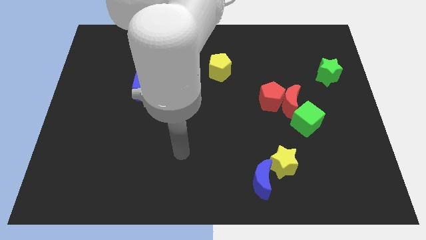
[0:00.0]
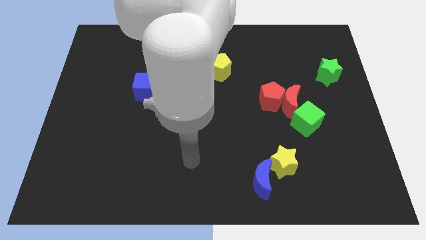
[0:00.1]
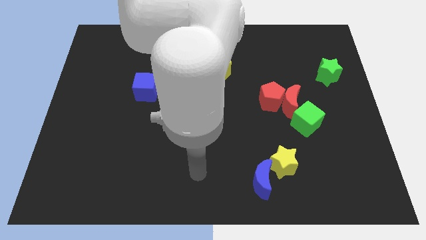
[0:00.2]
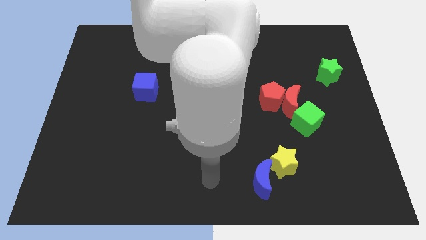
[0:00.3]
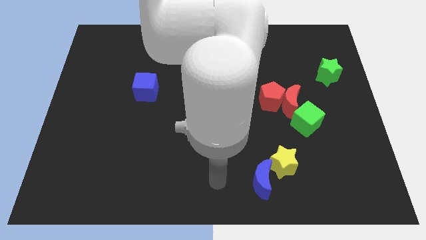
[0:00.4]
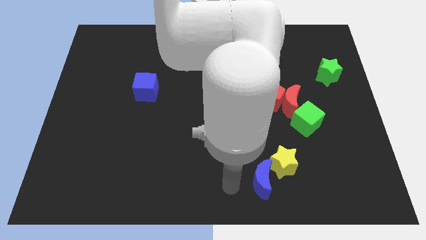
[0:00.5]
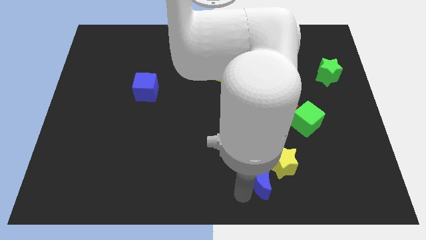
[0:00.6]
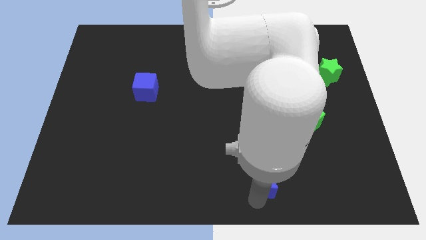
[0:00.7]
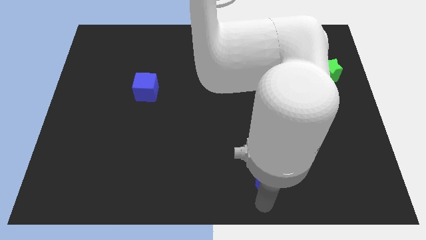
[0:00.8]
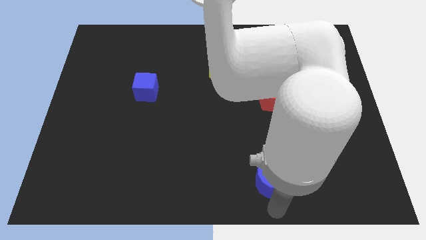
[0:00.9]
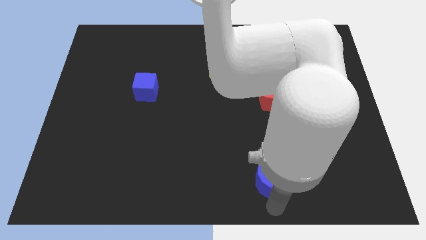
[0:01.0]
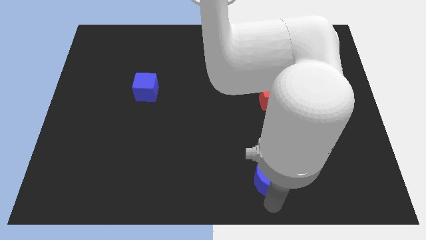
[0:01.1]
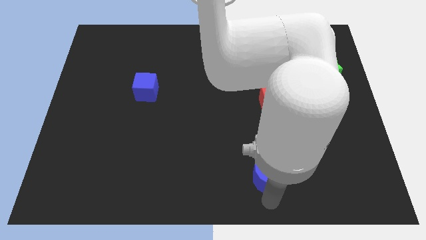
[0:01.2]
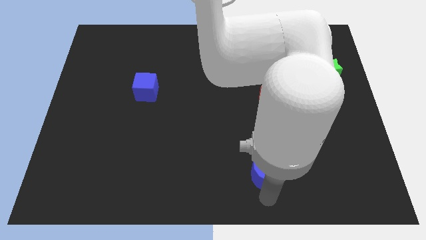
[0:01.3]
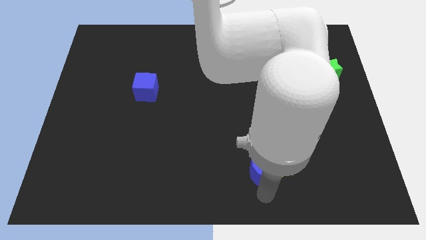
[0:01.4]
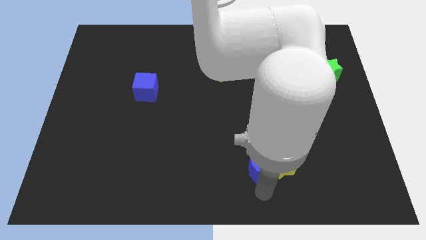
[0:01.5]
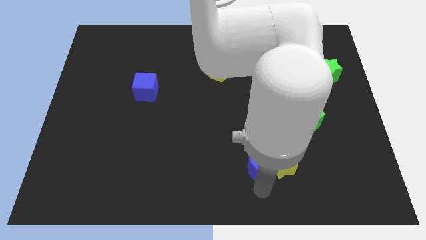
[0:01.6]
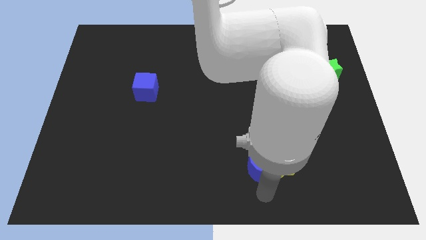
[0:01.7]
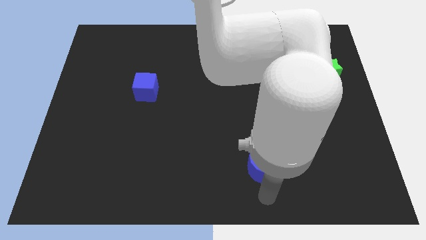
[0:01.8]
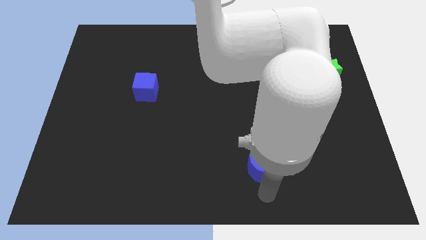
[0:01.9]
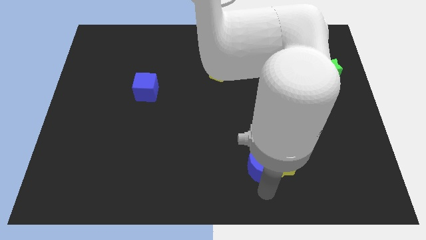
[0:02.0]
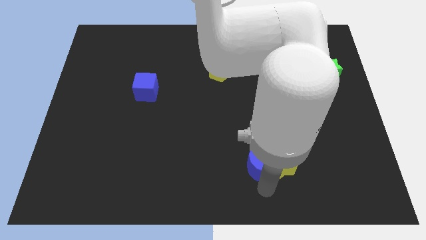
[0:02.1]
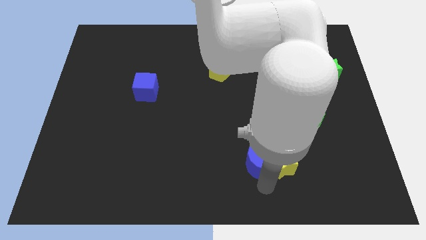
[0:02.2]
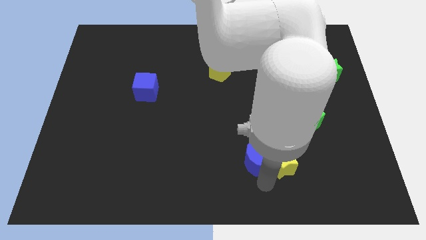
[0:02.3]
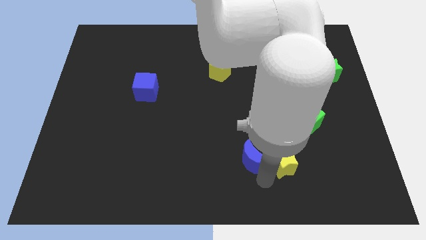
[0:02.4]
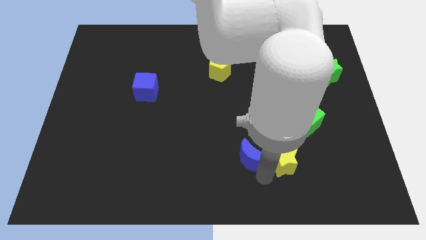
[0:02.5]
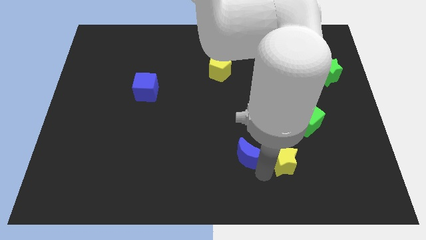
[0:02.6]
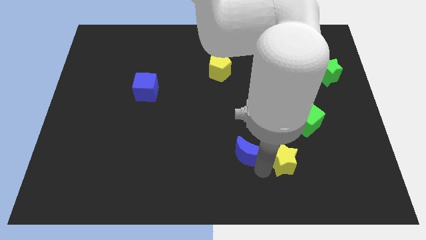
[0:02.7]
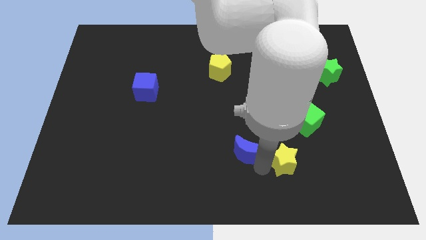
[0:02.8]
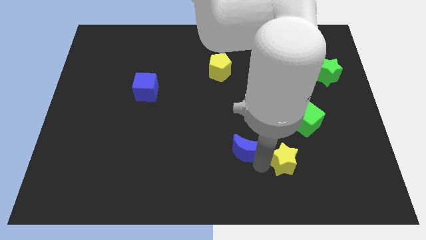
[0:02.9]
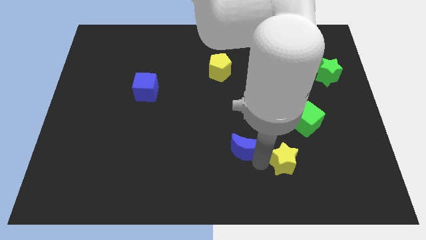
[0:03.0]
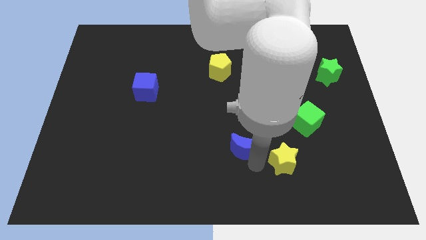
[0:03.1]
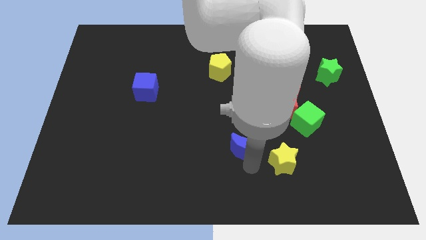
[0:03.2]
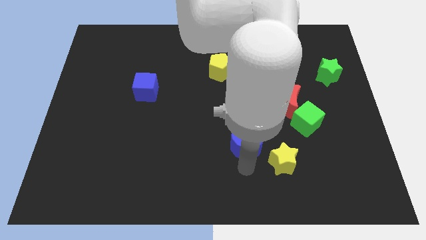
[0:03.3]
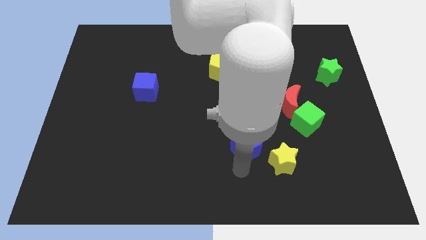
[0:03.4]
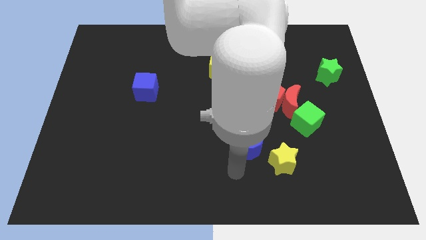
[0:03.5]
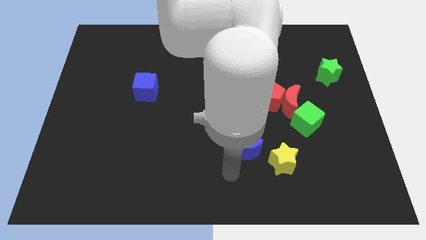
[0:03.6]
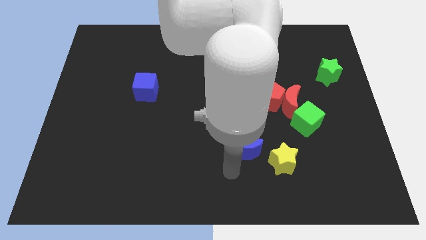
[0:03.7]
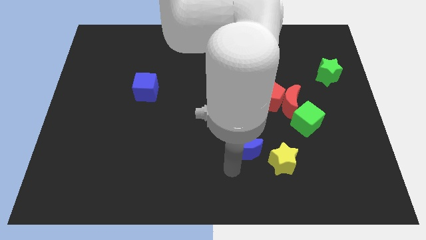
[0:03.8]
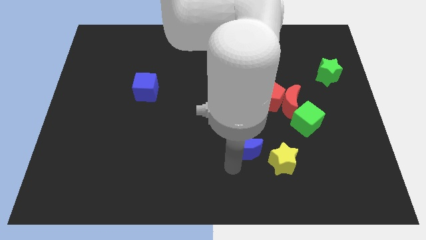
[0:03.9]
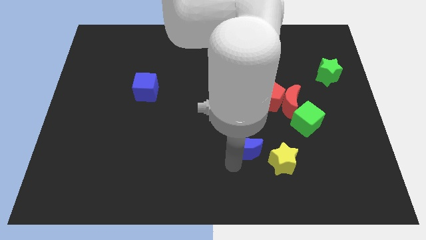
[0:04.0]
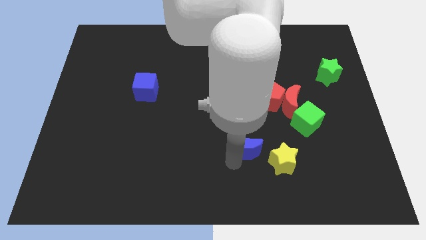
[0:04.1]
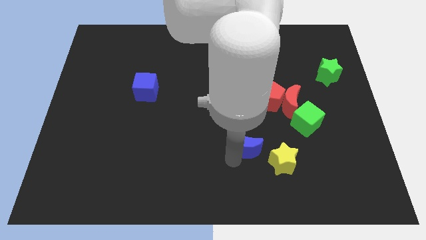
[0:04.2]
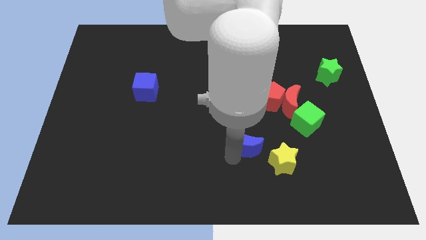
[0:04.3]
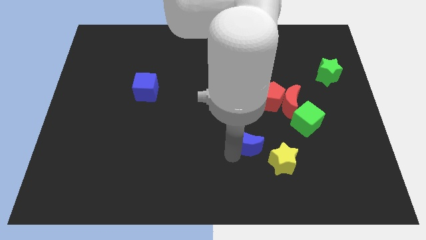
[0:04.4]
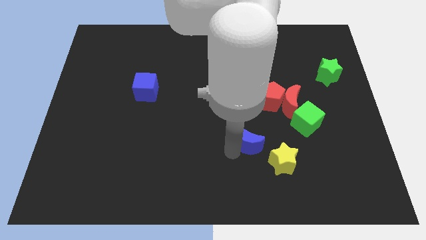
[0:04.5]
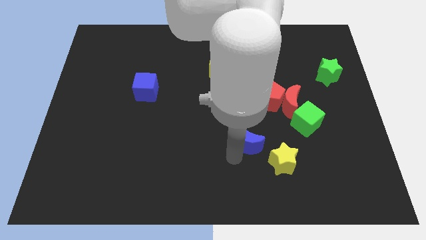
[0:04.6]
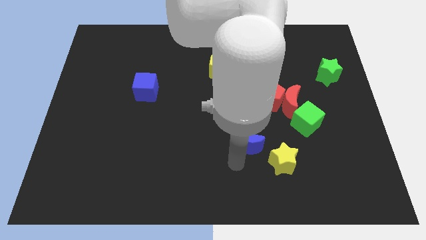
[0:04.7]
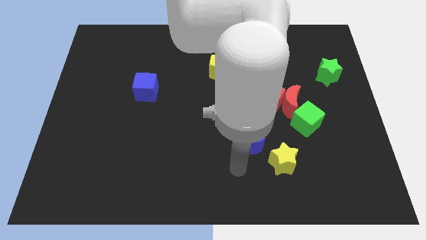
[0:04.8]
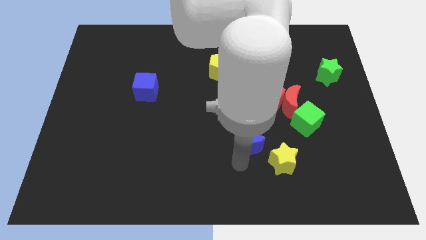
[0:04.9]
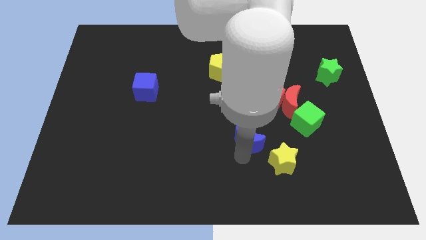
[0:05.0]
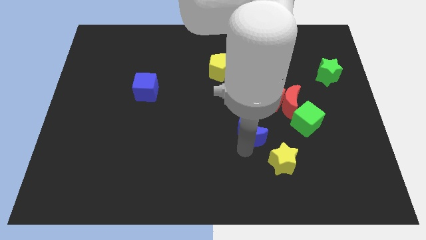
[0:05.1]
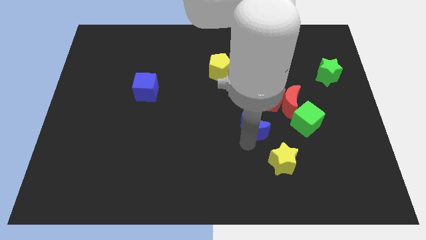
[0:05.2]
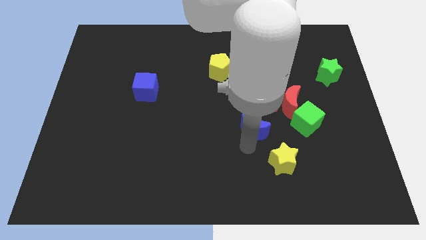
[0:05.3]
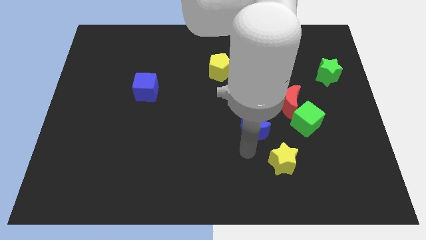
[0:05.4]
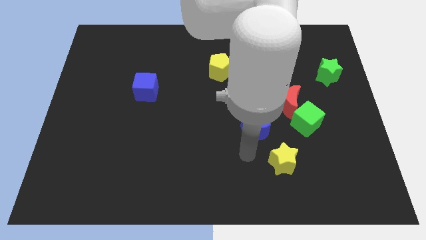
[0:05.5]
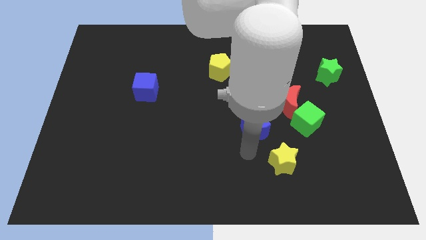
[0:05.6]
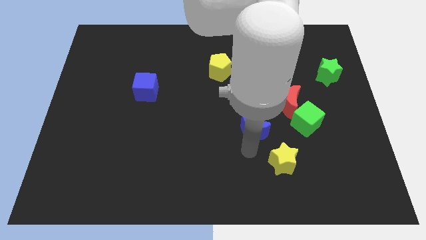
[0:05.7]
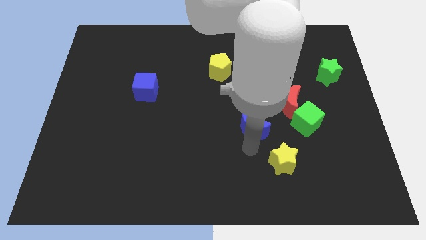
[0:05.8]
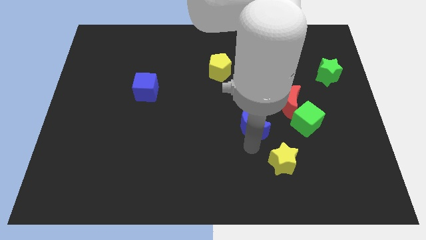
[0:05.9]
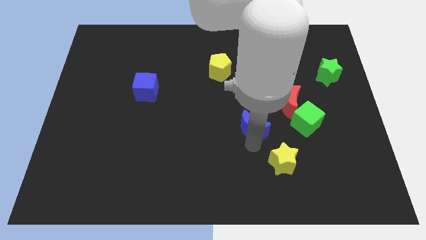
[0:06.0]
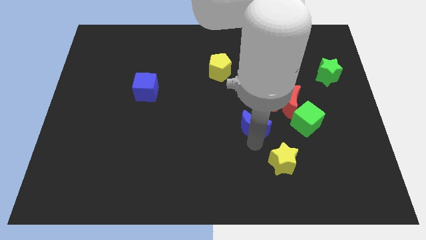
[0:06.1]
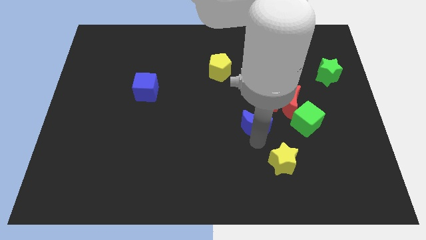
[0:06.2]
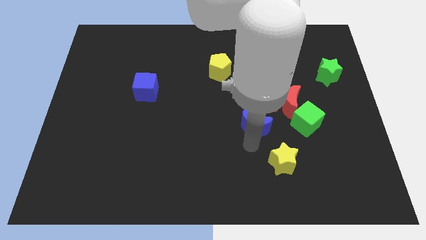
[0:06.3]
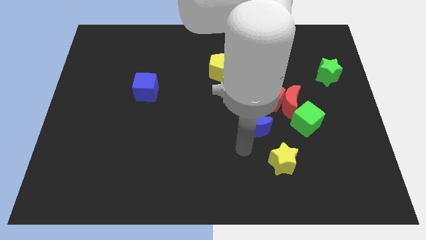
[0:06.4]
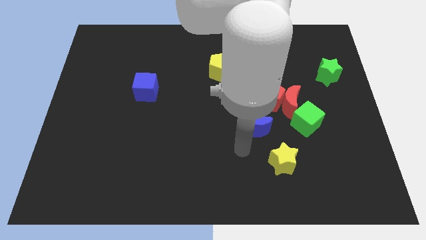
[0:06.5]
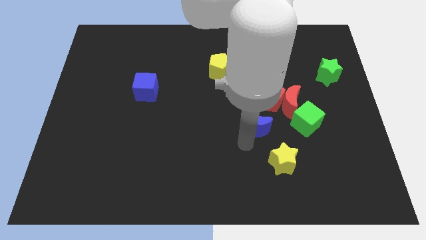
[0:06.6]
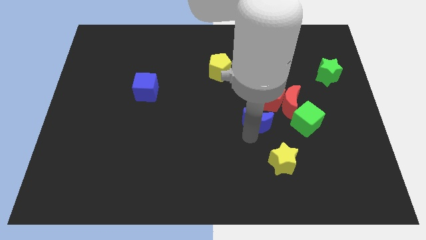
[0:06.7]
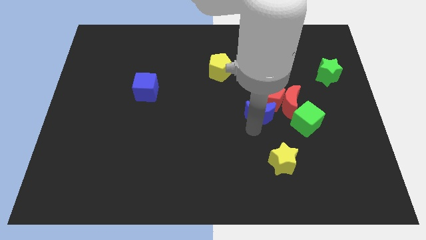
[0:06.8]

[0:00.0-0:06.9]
slide the blue moon to the red pentagon
